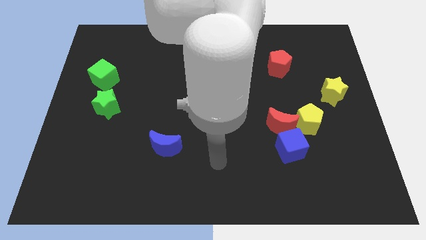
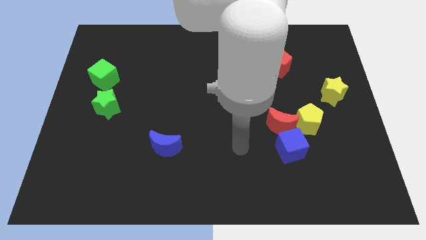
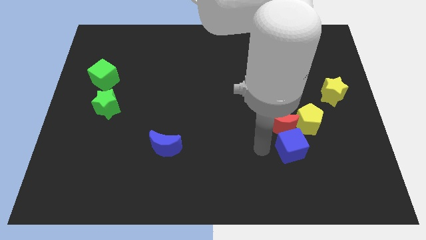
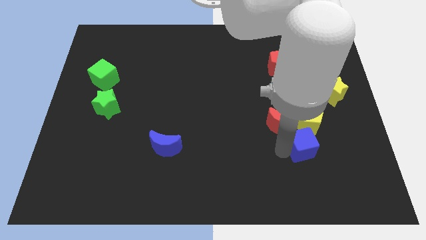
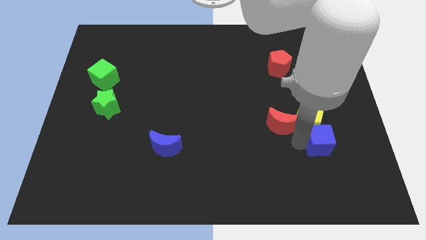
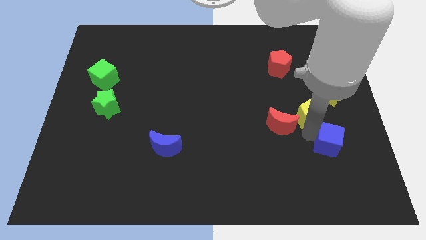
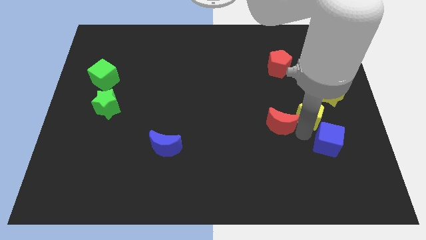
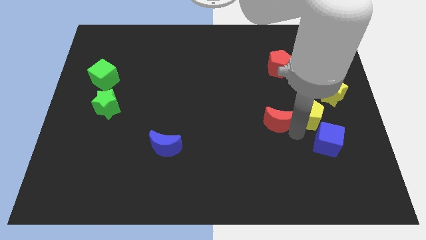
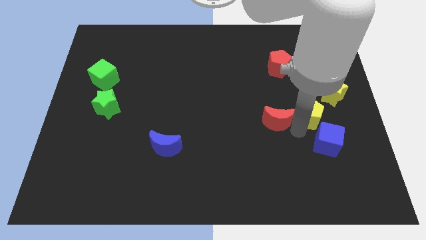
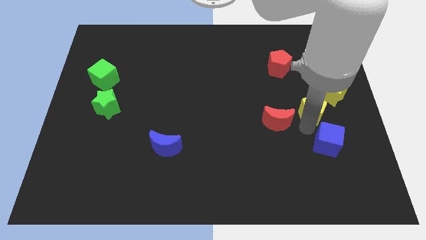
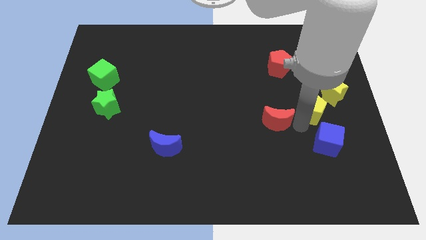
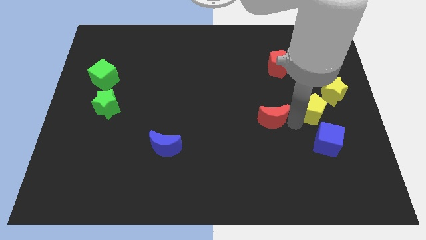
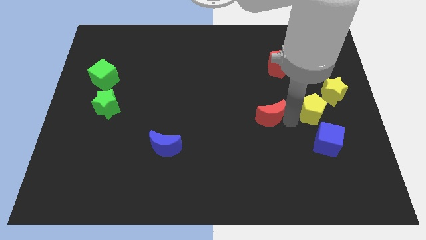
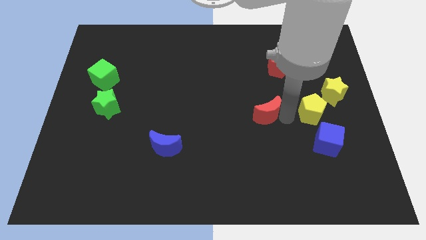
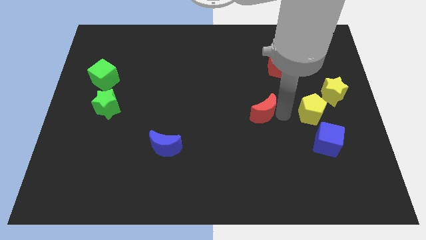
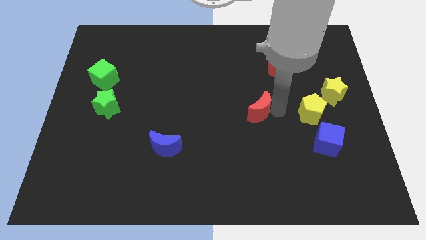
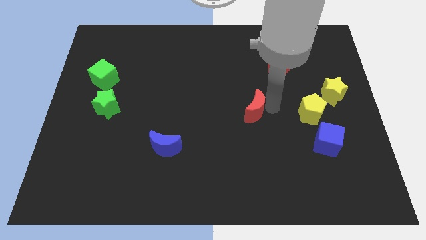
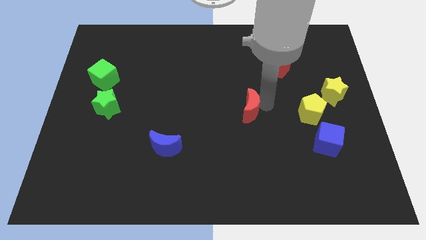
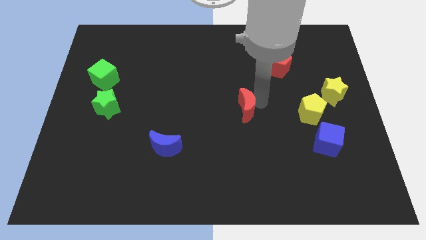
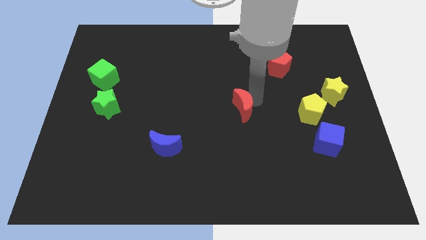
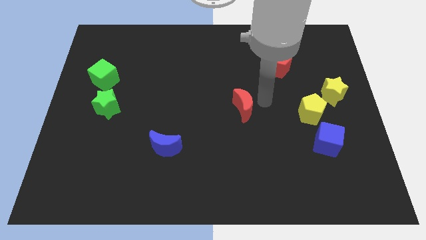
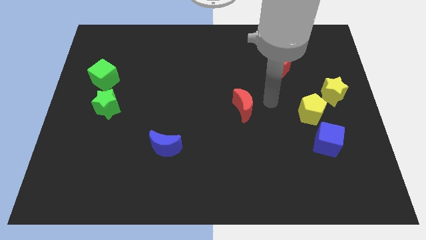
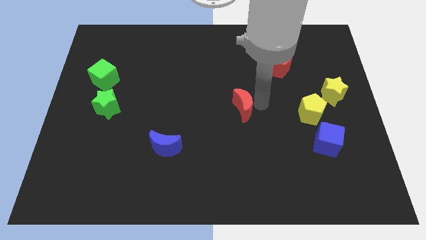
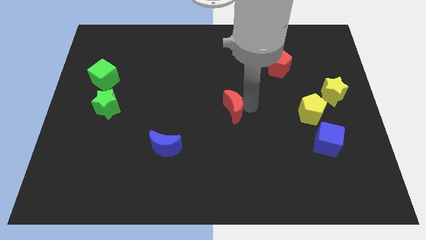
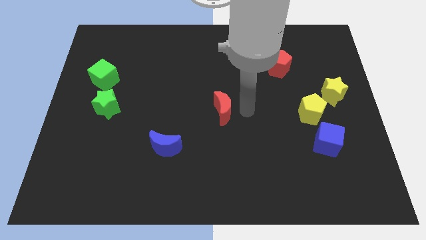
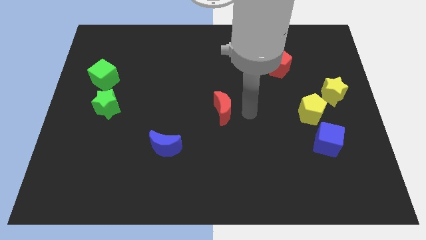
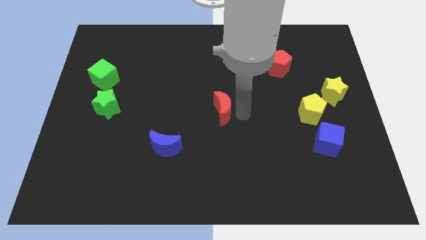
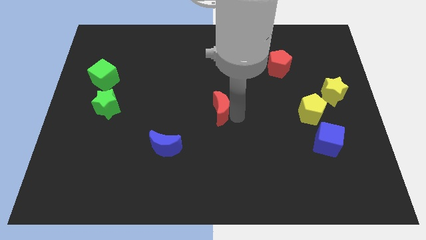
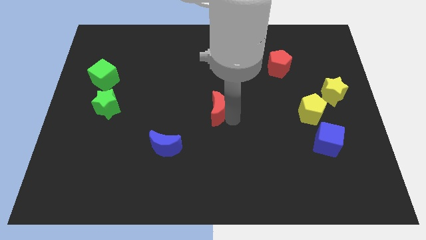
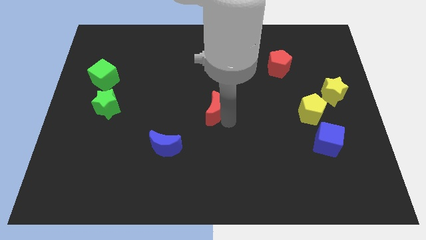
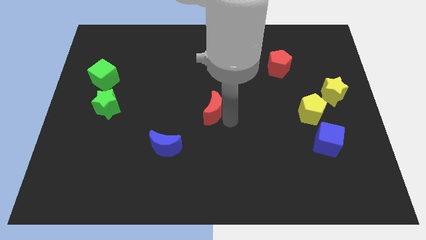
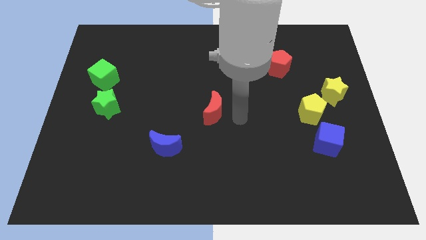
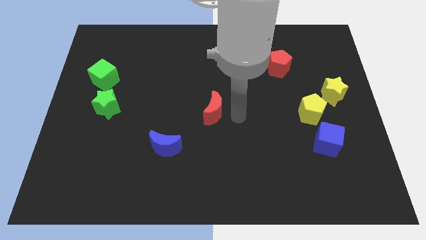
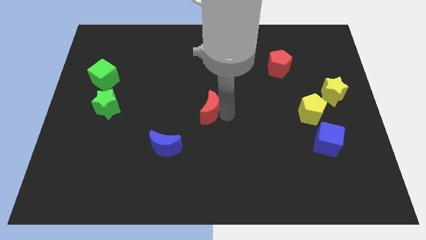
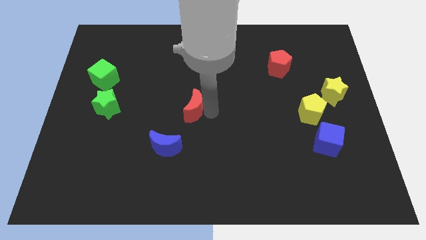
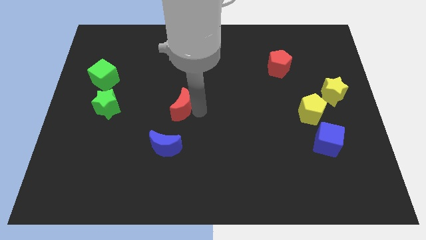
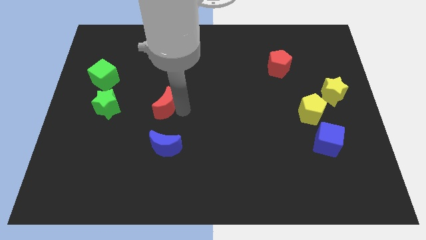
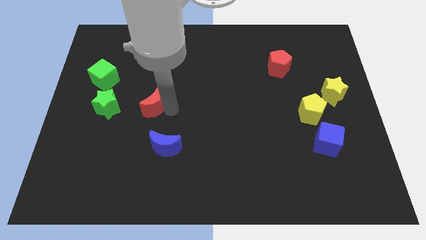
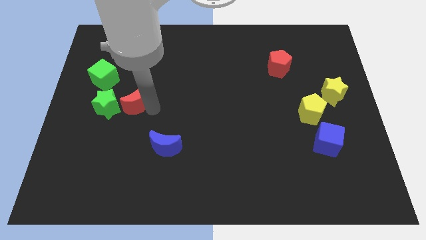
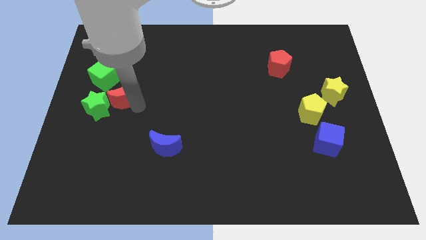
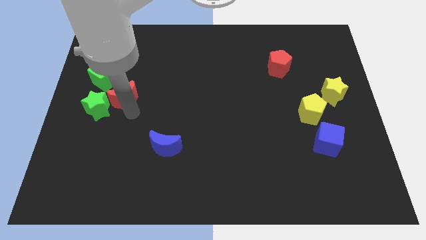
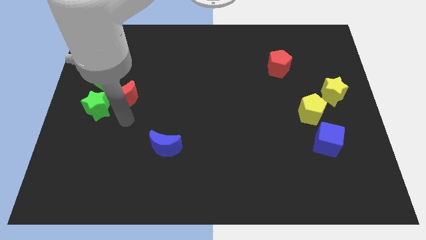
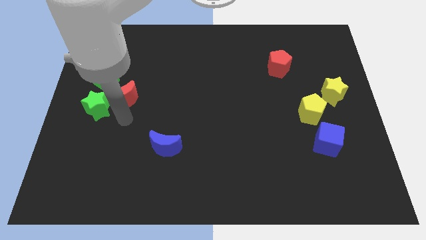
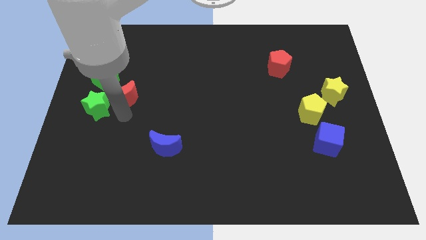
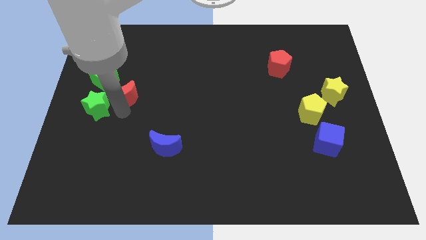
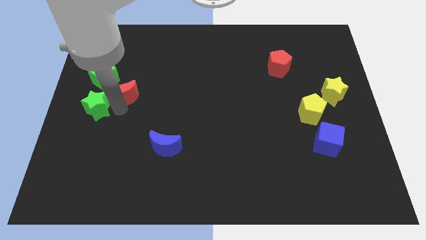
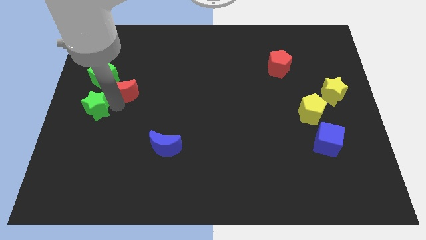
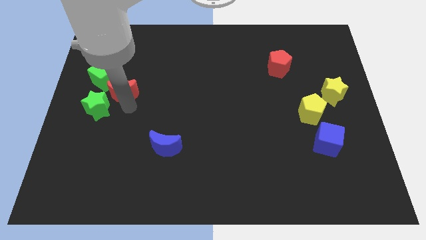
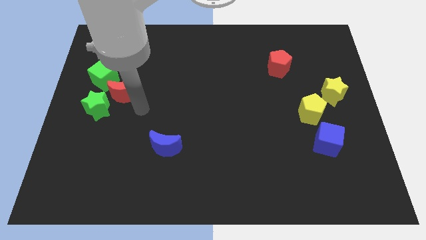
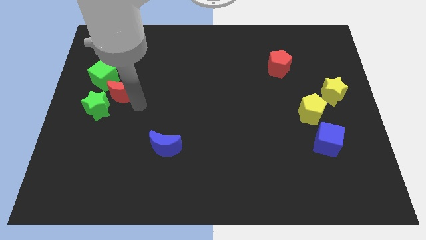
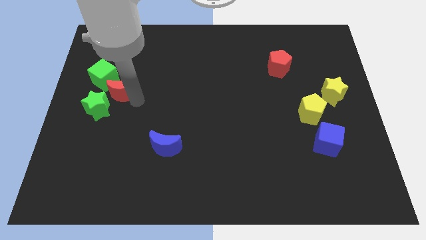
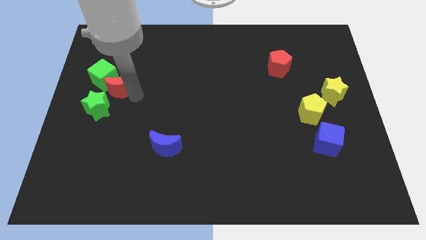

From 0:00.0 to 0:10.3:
put the red moon towards the green cube
